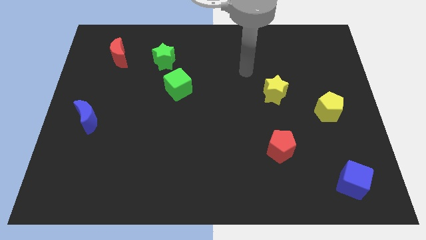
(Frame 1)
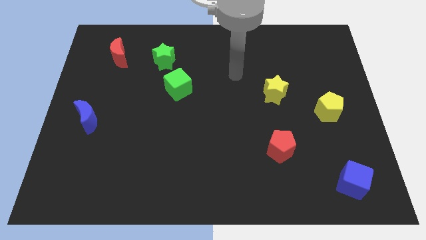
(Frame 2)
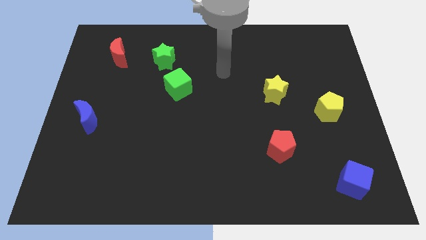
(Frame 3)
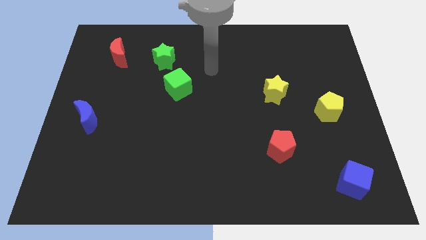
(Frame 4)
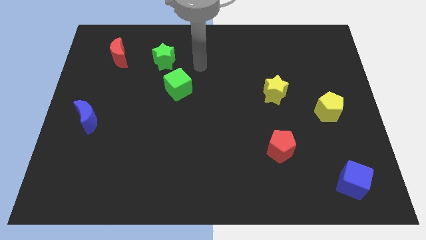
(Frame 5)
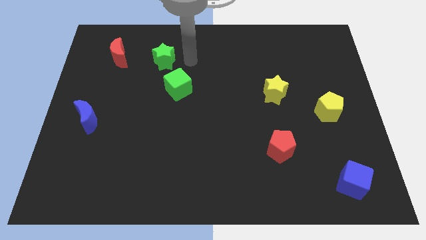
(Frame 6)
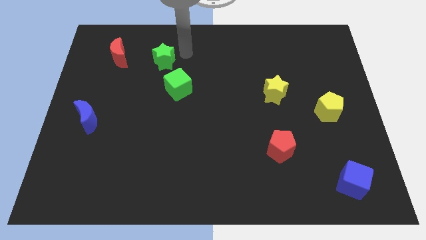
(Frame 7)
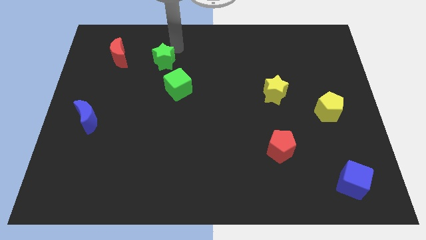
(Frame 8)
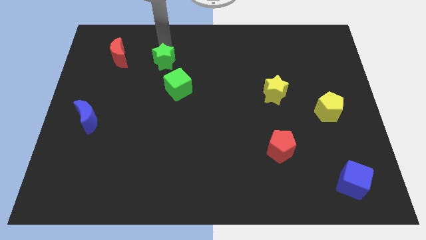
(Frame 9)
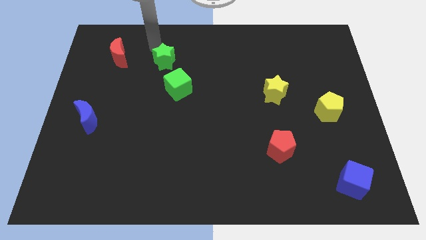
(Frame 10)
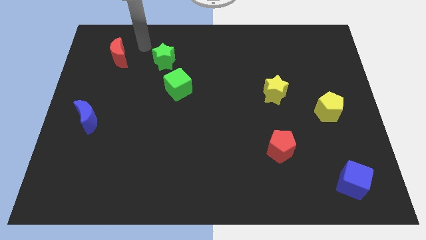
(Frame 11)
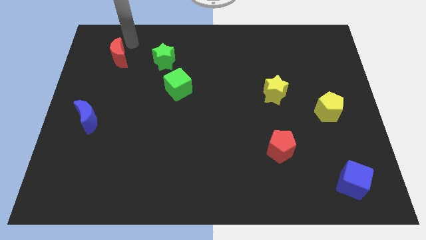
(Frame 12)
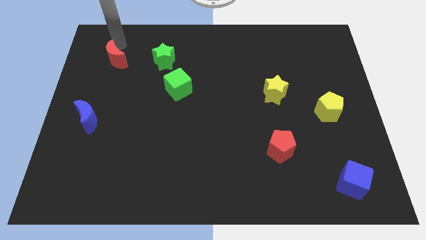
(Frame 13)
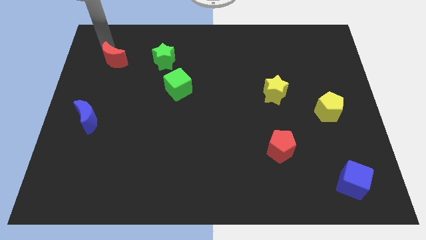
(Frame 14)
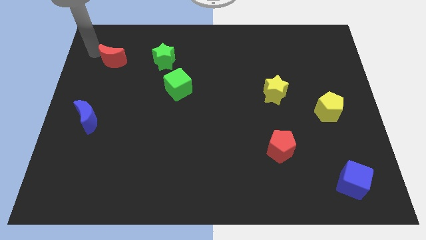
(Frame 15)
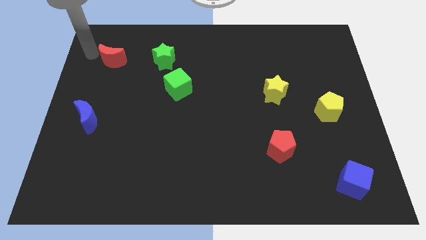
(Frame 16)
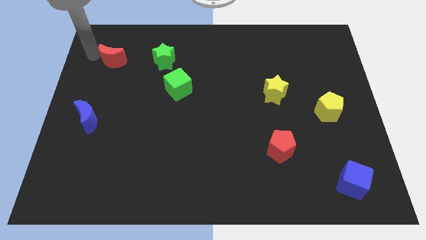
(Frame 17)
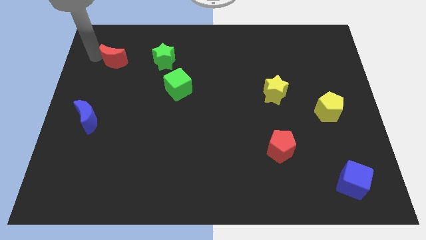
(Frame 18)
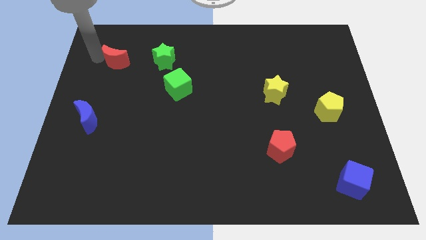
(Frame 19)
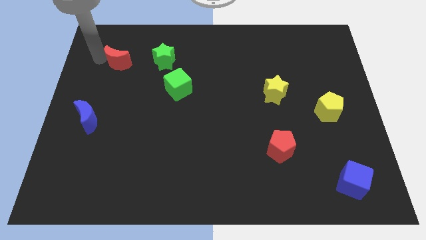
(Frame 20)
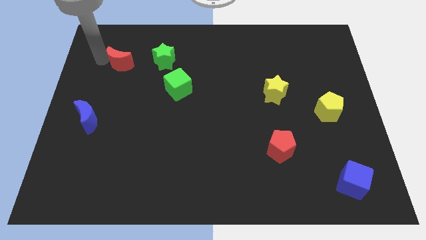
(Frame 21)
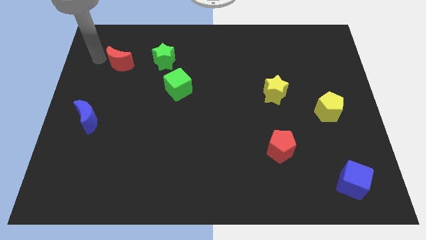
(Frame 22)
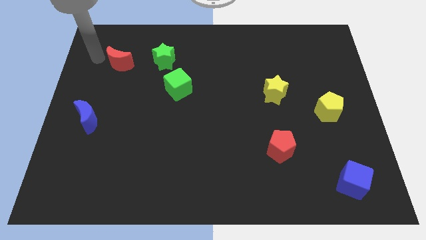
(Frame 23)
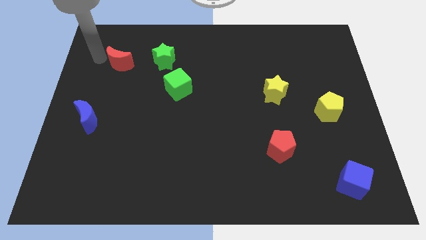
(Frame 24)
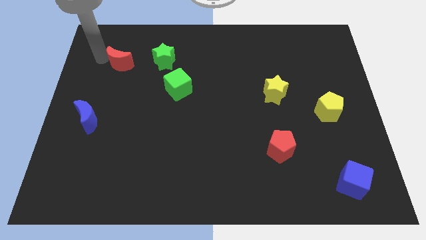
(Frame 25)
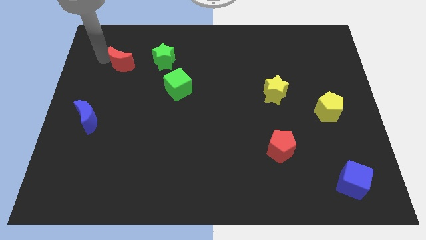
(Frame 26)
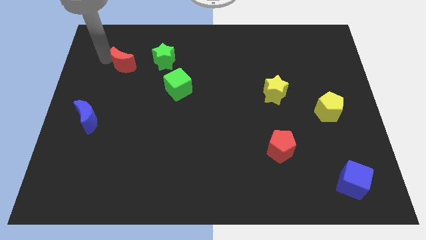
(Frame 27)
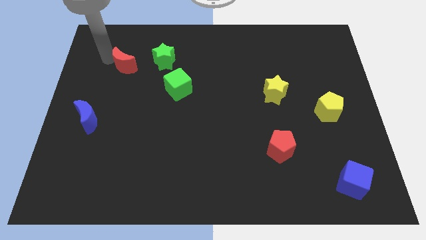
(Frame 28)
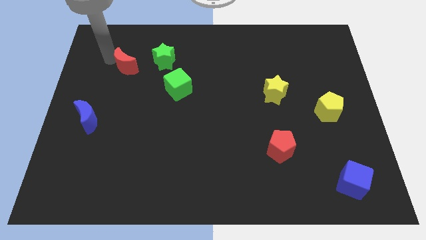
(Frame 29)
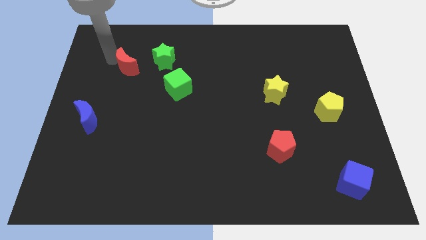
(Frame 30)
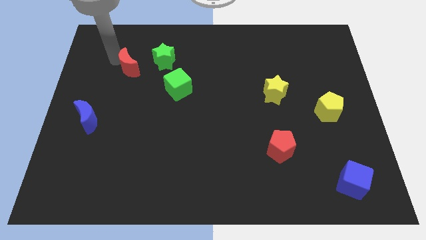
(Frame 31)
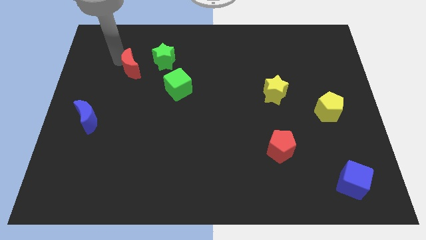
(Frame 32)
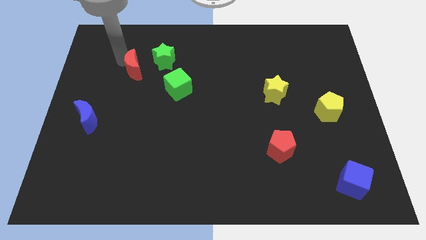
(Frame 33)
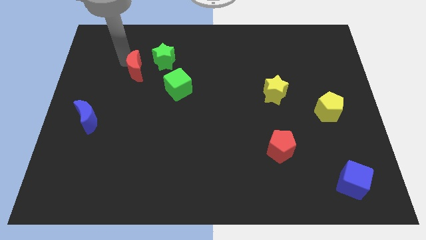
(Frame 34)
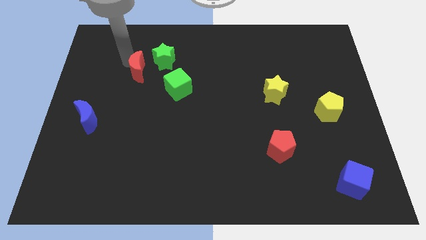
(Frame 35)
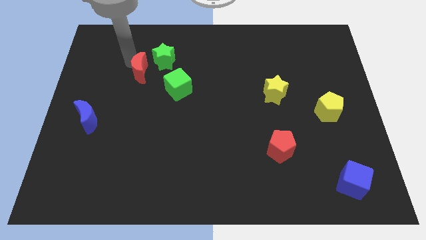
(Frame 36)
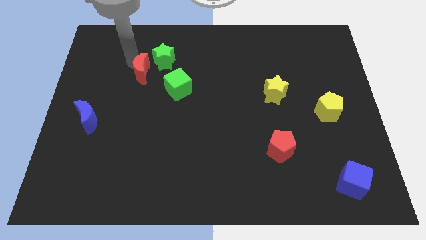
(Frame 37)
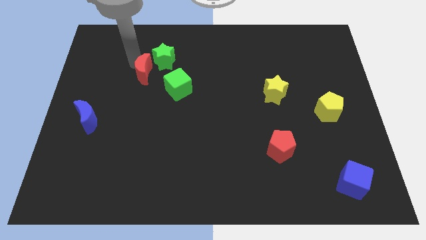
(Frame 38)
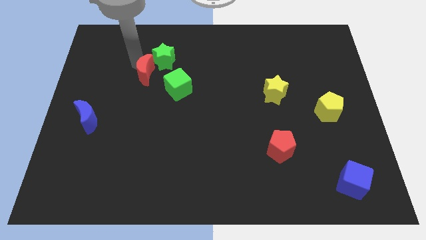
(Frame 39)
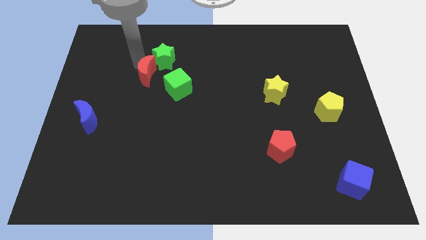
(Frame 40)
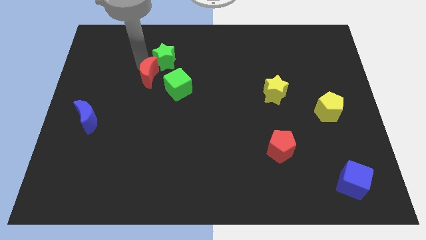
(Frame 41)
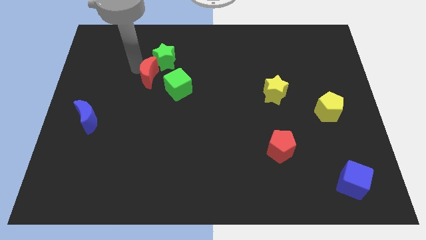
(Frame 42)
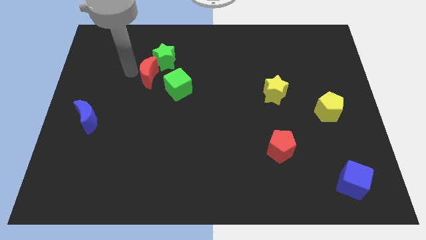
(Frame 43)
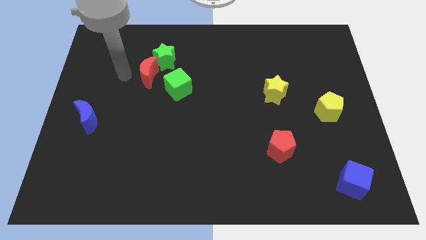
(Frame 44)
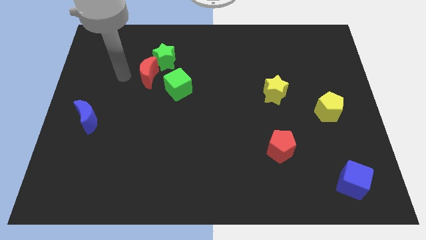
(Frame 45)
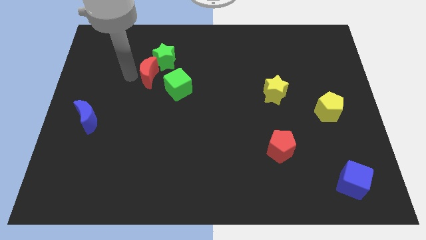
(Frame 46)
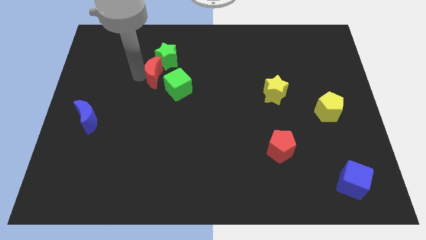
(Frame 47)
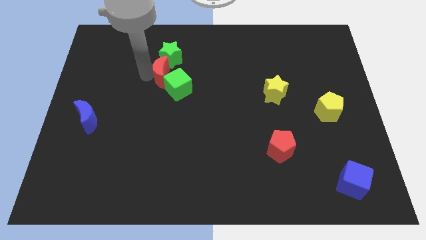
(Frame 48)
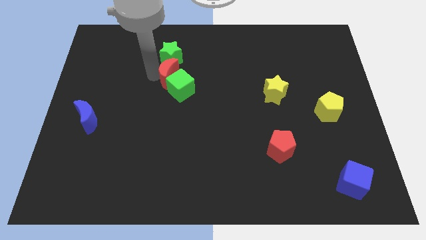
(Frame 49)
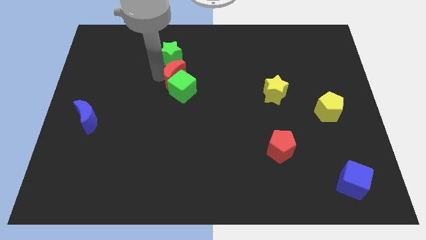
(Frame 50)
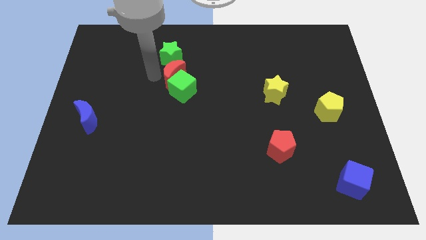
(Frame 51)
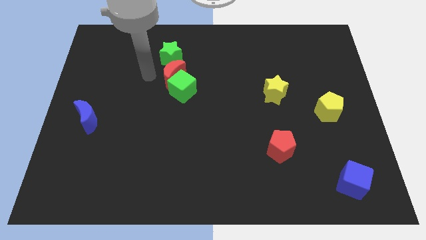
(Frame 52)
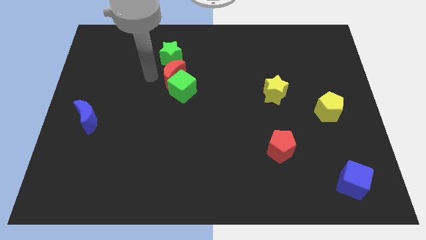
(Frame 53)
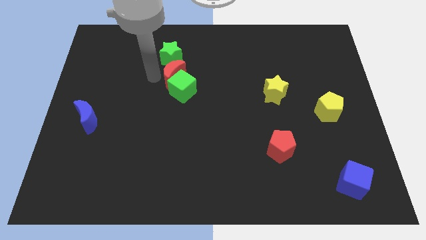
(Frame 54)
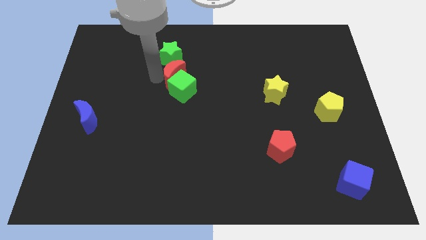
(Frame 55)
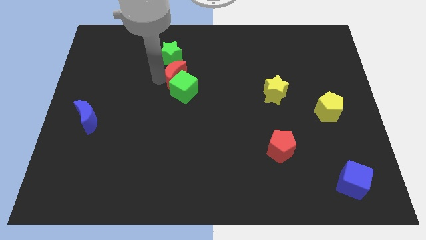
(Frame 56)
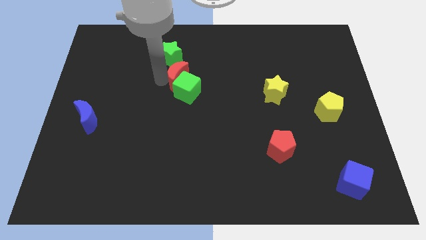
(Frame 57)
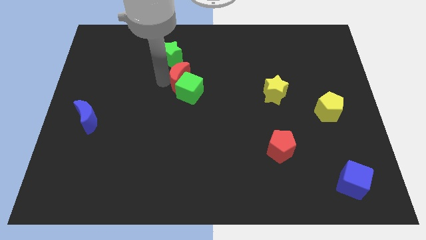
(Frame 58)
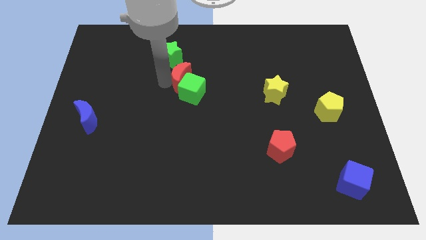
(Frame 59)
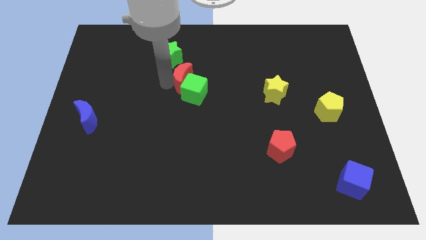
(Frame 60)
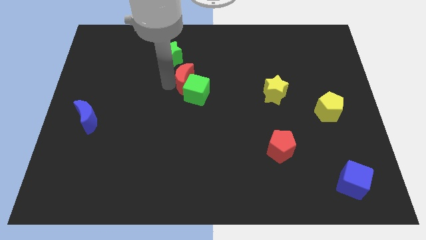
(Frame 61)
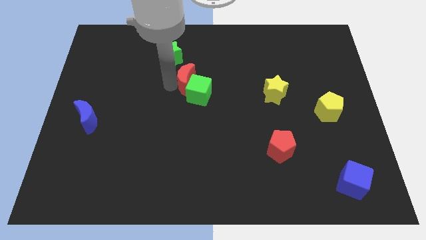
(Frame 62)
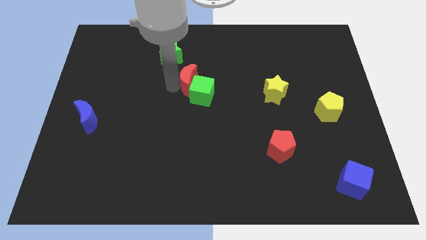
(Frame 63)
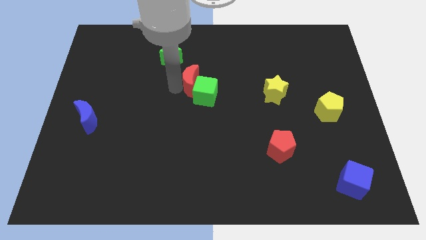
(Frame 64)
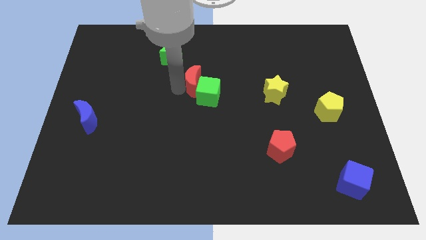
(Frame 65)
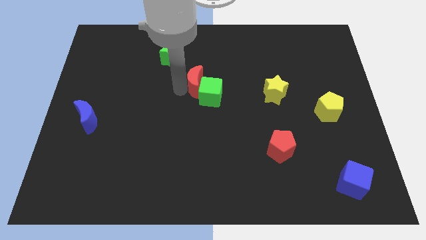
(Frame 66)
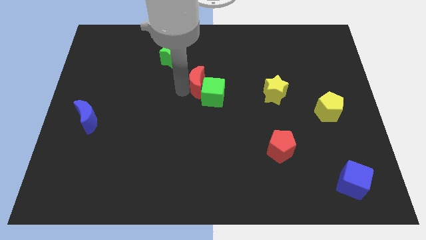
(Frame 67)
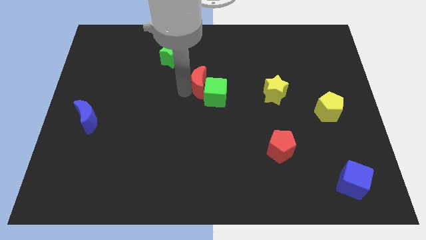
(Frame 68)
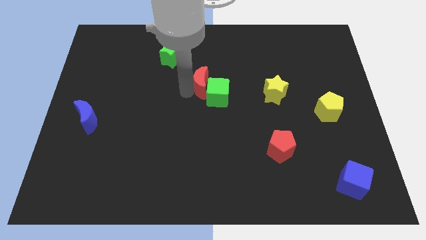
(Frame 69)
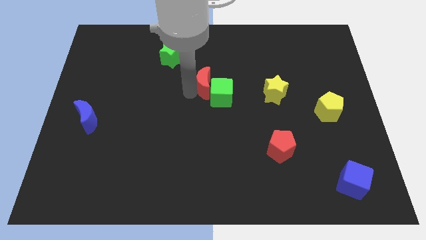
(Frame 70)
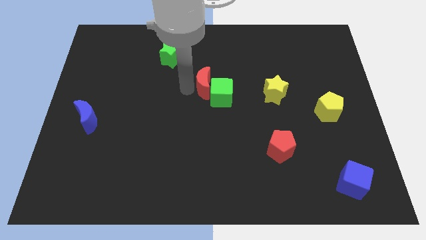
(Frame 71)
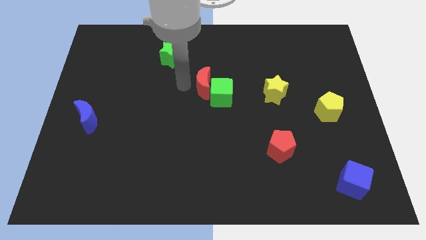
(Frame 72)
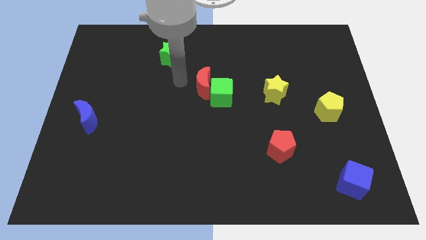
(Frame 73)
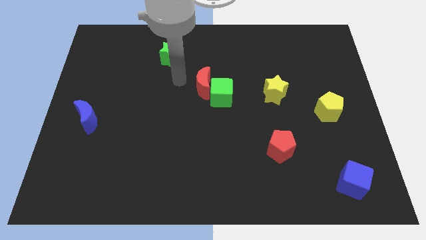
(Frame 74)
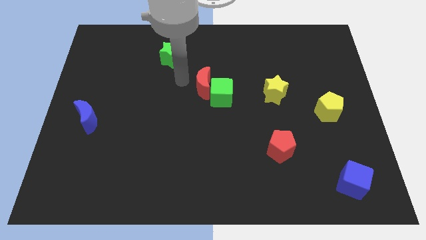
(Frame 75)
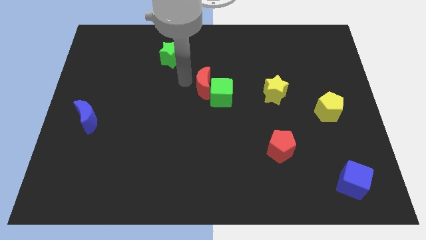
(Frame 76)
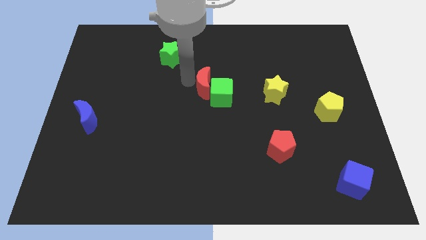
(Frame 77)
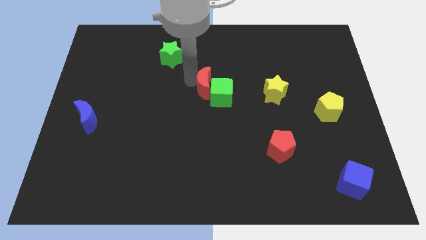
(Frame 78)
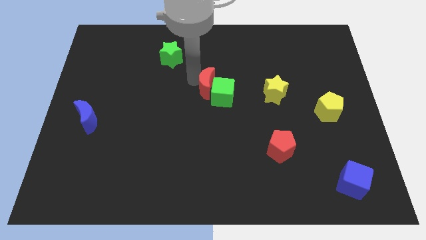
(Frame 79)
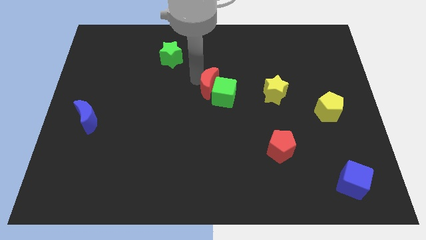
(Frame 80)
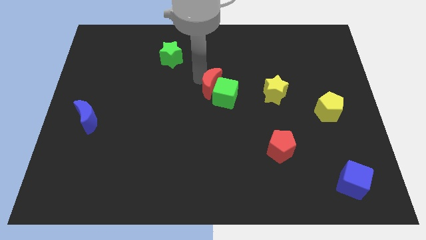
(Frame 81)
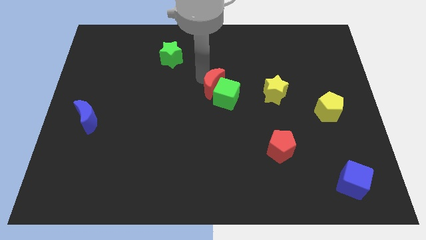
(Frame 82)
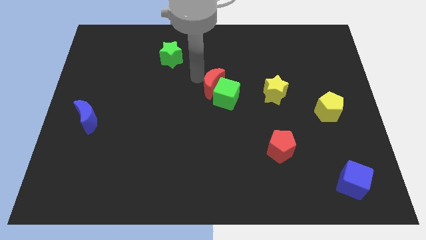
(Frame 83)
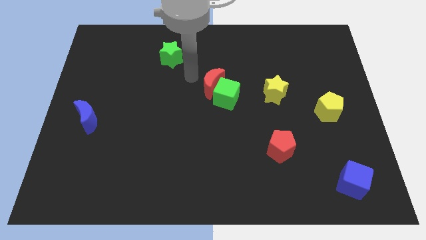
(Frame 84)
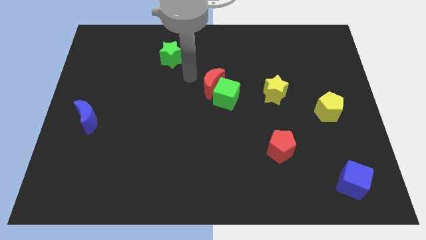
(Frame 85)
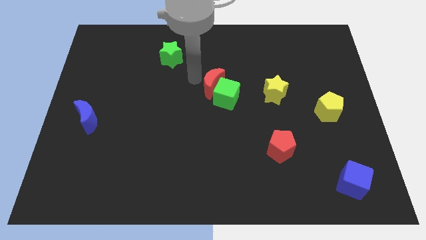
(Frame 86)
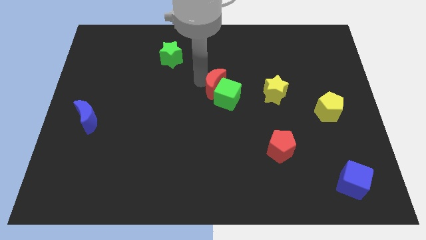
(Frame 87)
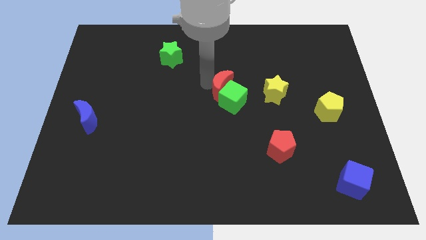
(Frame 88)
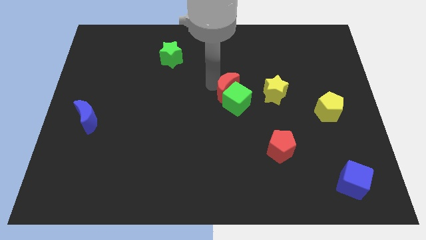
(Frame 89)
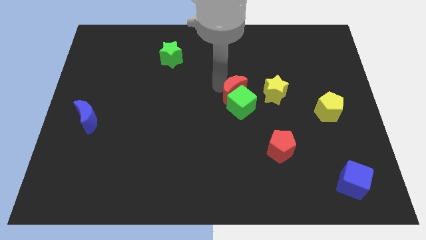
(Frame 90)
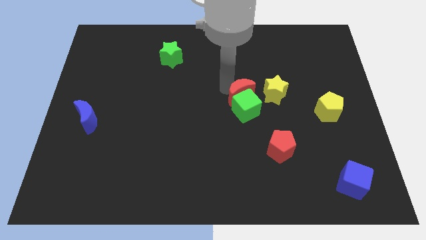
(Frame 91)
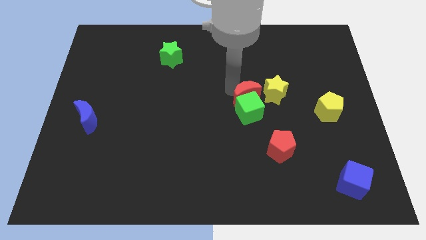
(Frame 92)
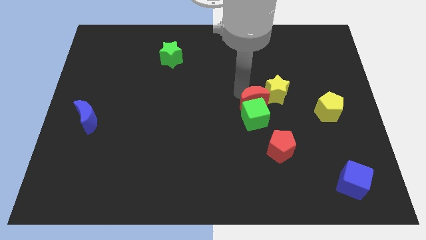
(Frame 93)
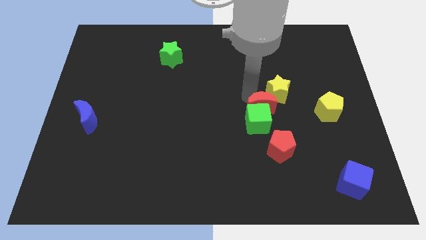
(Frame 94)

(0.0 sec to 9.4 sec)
put the red moon below the yellow star
